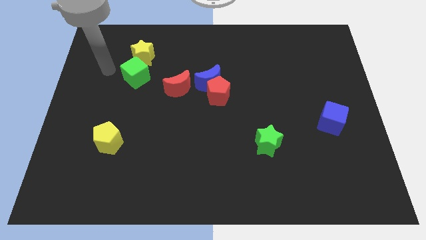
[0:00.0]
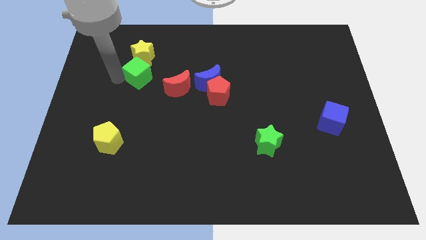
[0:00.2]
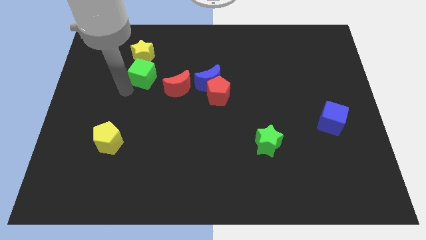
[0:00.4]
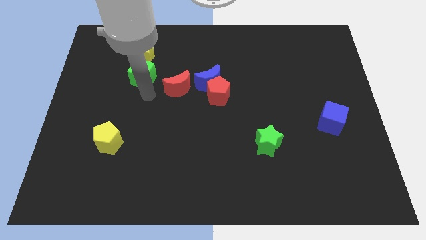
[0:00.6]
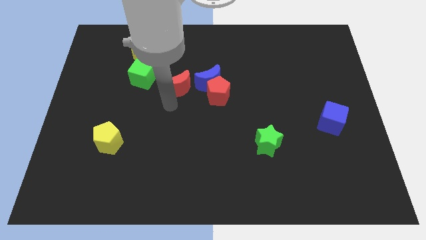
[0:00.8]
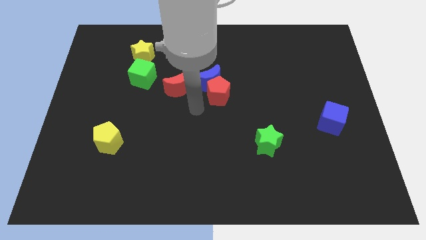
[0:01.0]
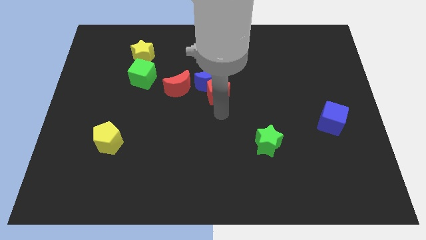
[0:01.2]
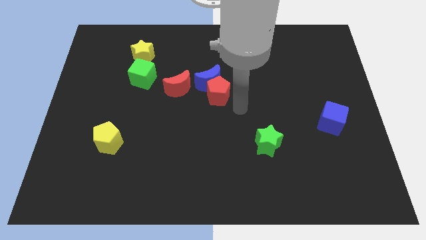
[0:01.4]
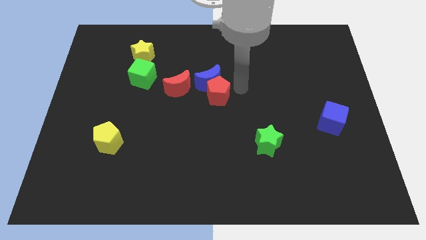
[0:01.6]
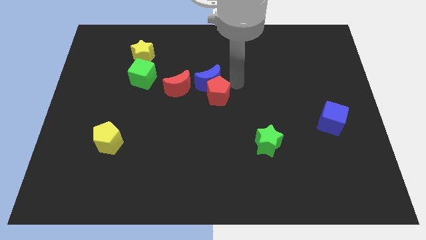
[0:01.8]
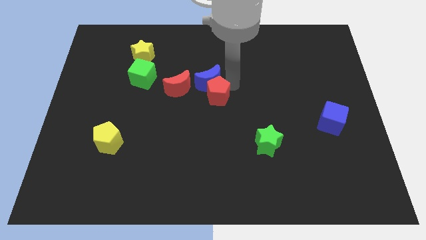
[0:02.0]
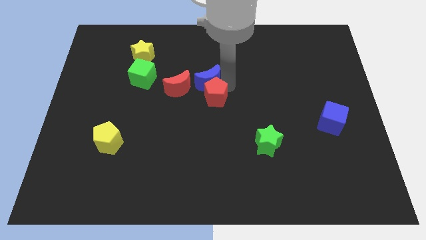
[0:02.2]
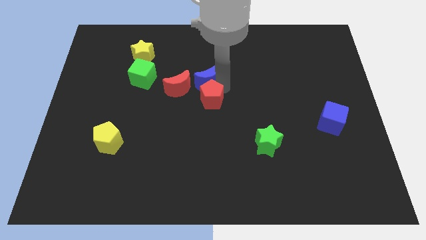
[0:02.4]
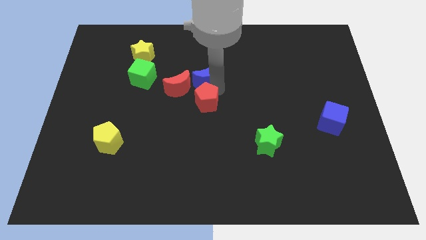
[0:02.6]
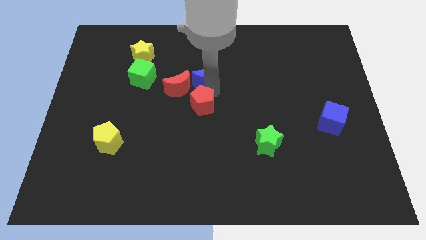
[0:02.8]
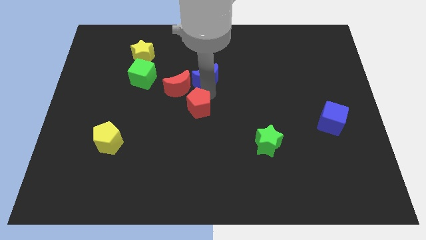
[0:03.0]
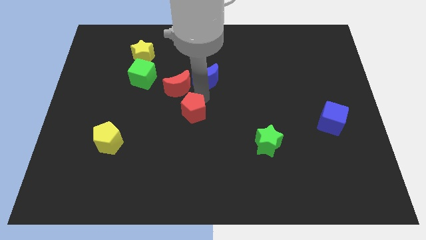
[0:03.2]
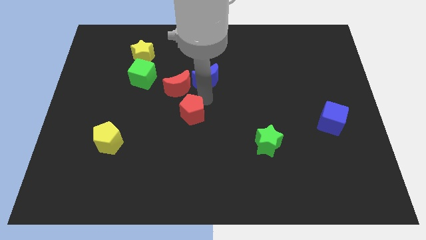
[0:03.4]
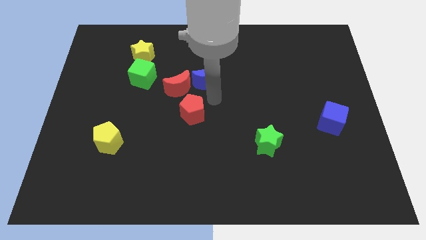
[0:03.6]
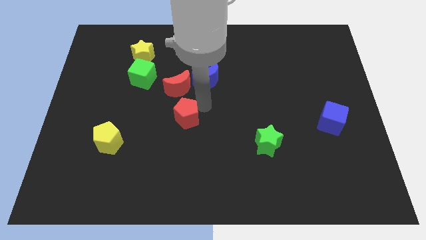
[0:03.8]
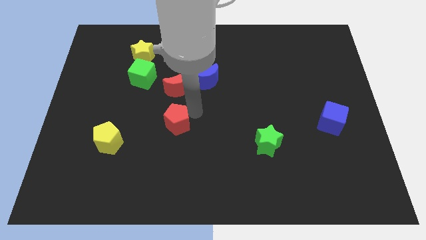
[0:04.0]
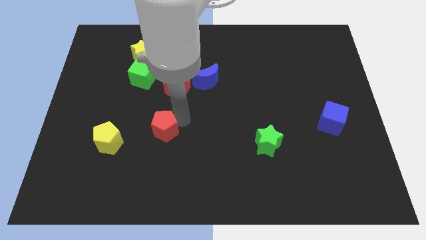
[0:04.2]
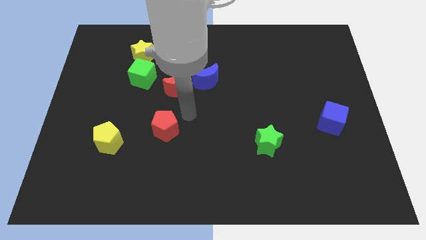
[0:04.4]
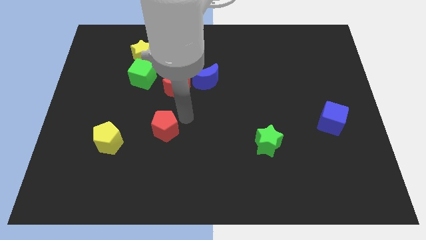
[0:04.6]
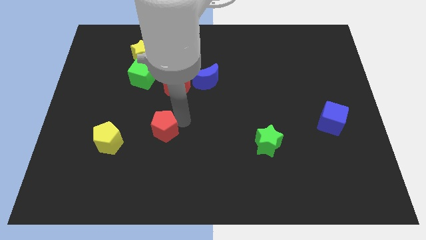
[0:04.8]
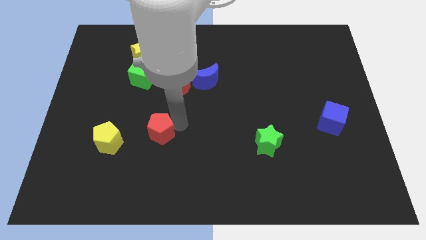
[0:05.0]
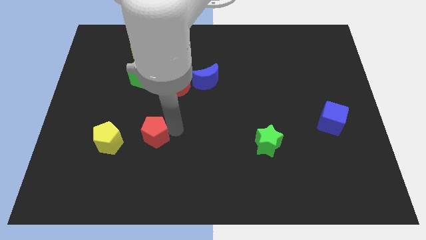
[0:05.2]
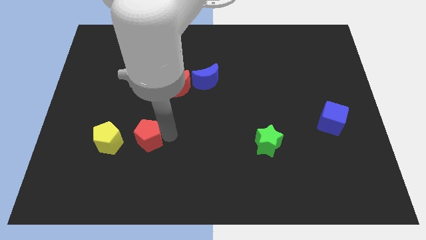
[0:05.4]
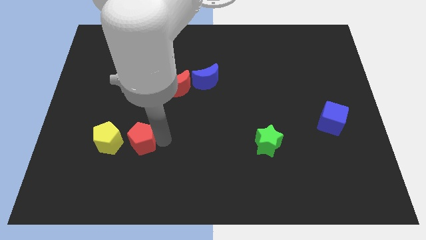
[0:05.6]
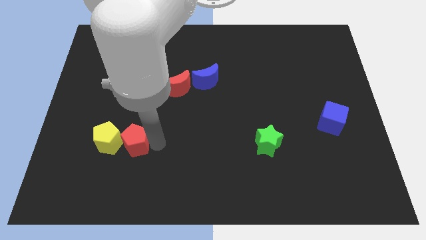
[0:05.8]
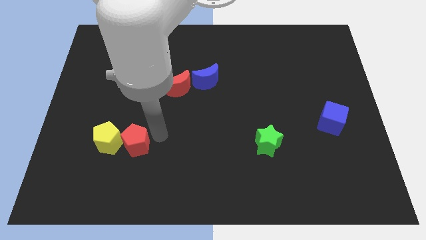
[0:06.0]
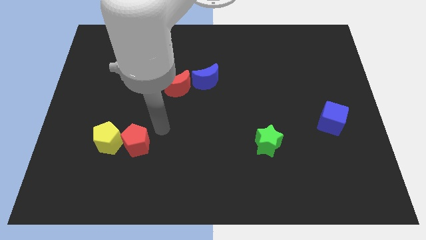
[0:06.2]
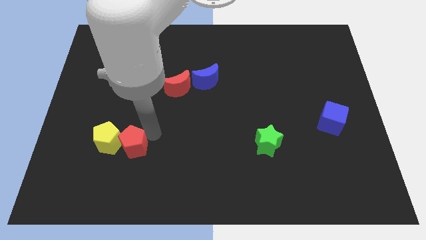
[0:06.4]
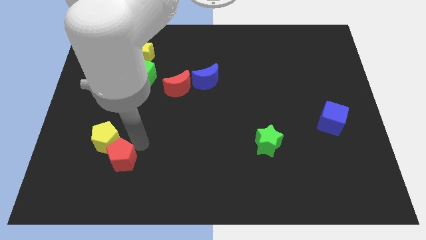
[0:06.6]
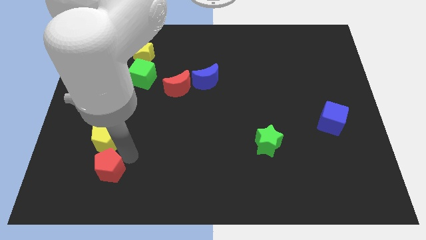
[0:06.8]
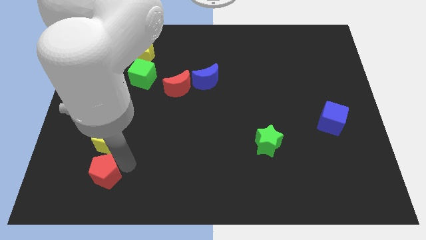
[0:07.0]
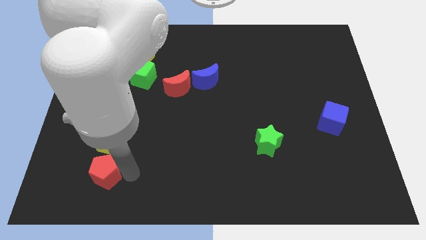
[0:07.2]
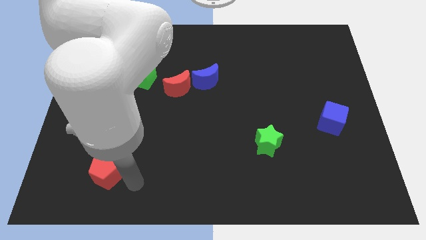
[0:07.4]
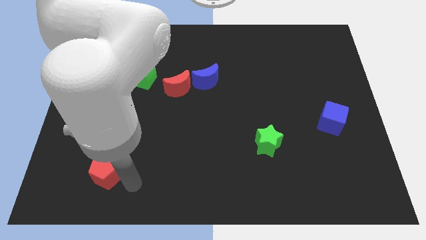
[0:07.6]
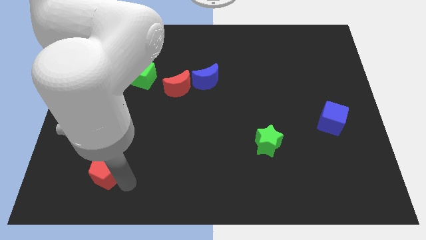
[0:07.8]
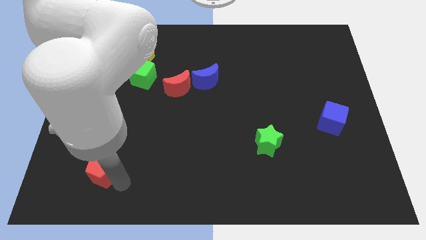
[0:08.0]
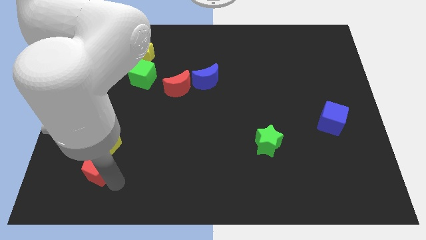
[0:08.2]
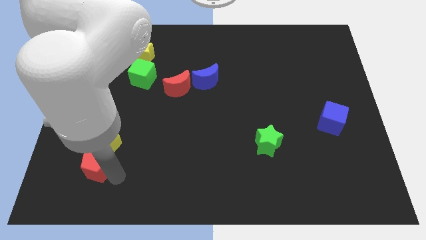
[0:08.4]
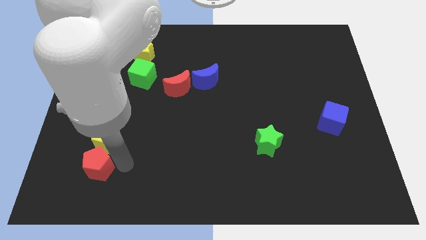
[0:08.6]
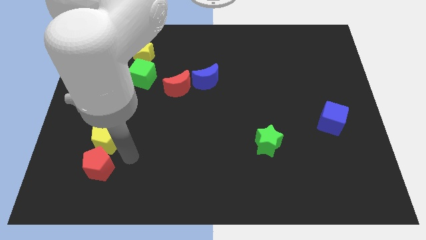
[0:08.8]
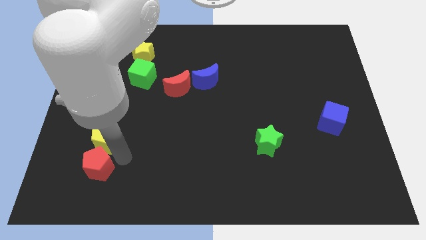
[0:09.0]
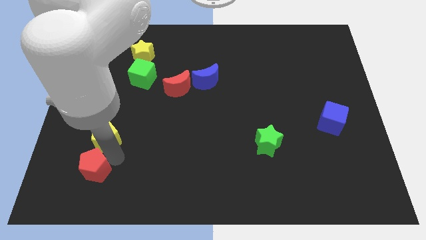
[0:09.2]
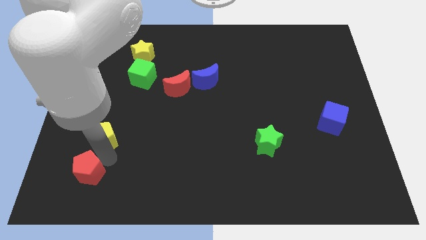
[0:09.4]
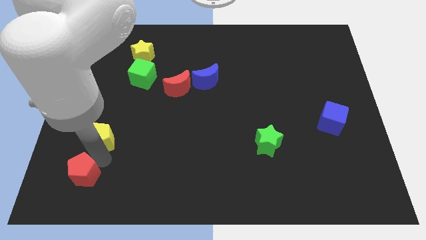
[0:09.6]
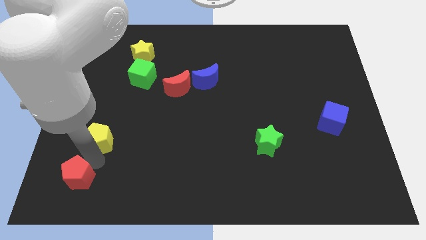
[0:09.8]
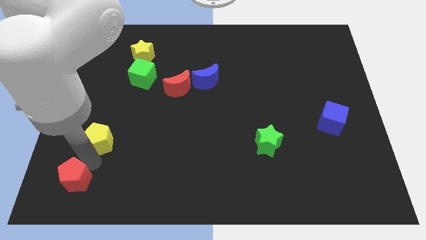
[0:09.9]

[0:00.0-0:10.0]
slide the red pentagon to the bottom left

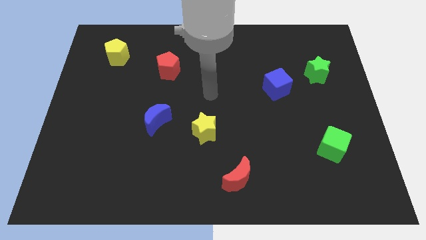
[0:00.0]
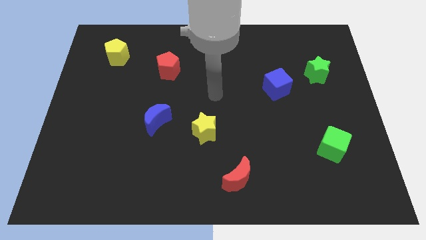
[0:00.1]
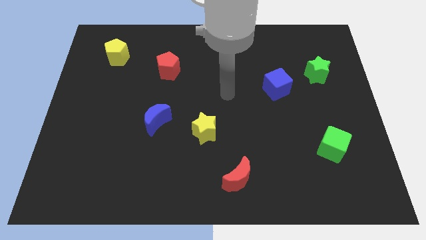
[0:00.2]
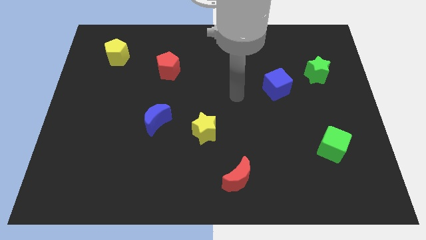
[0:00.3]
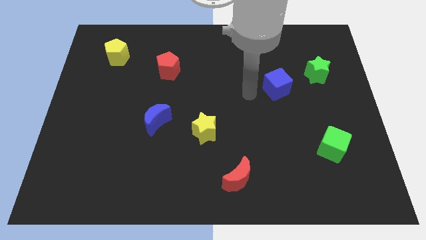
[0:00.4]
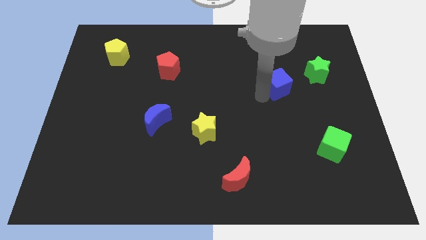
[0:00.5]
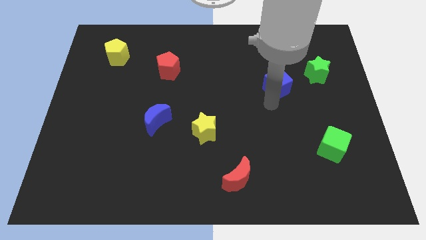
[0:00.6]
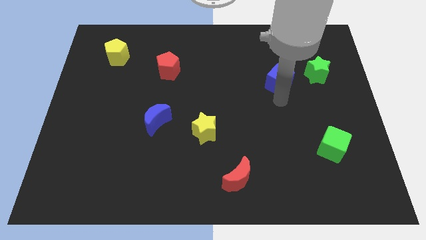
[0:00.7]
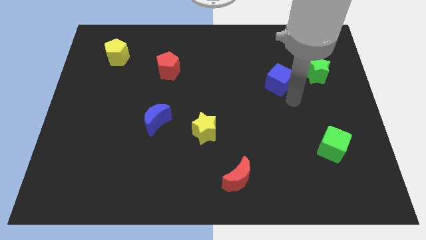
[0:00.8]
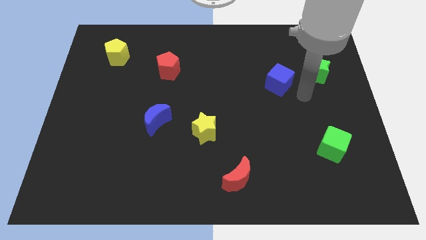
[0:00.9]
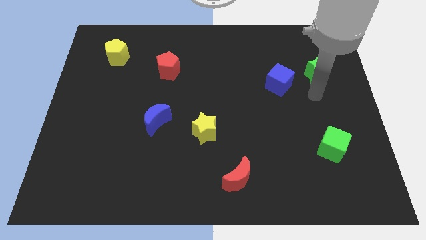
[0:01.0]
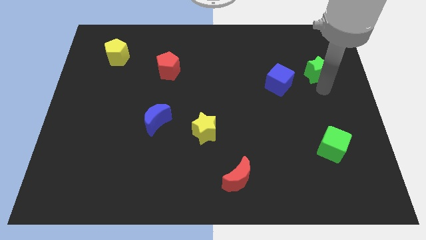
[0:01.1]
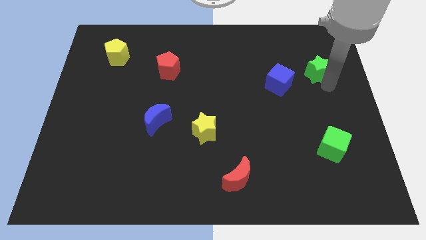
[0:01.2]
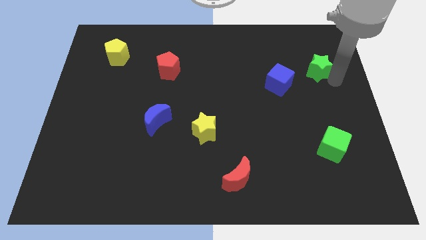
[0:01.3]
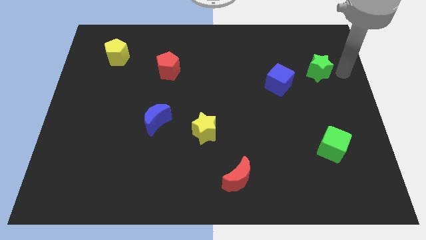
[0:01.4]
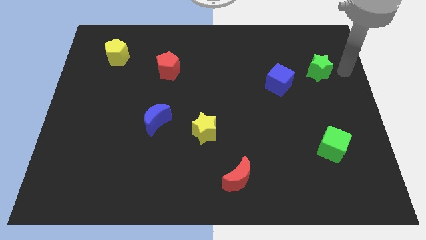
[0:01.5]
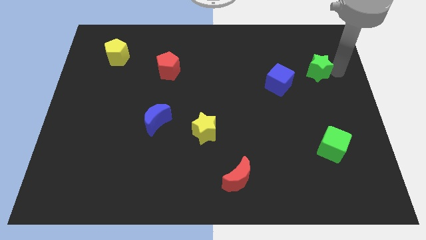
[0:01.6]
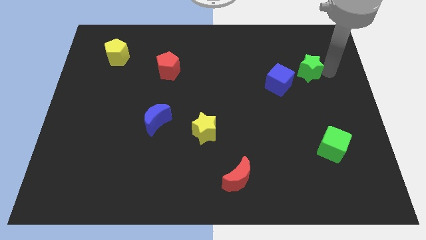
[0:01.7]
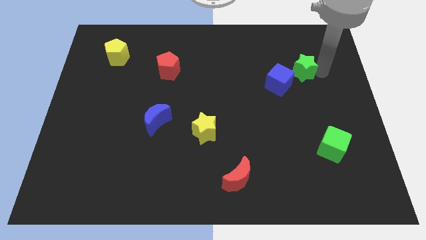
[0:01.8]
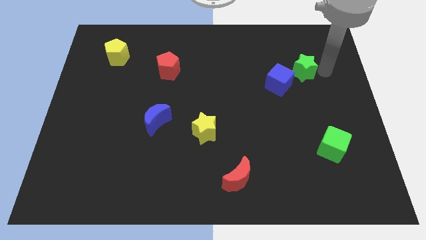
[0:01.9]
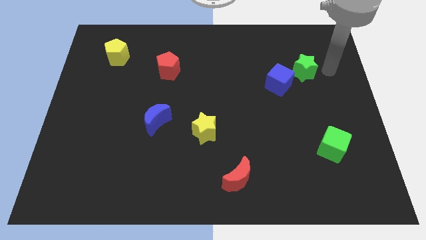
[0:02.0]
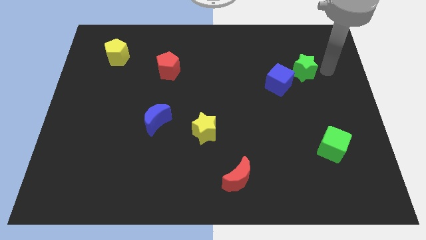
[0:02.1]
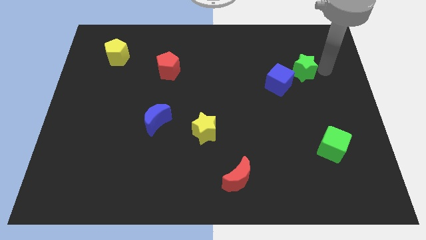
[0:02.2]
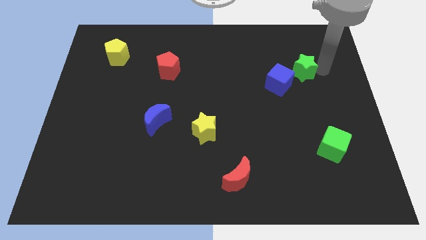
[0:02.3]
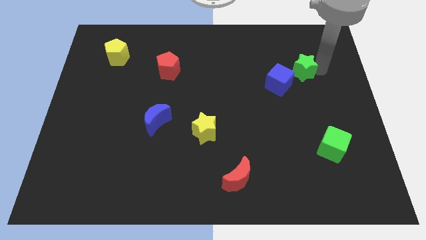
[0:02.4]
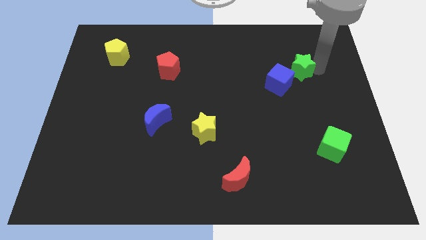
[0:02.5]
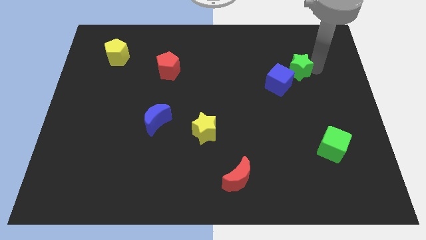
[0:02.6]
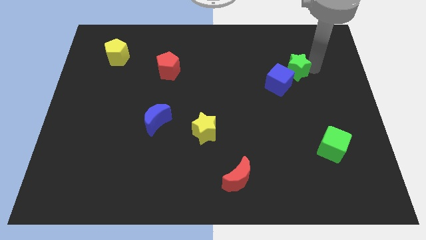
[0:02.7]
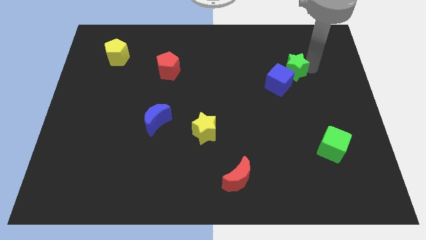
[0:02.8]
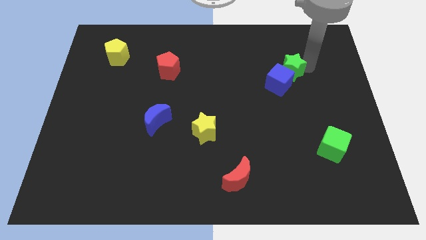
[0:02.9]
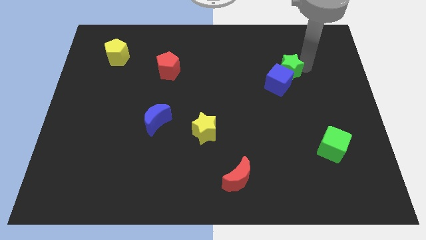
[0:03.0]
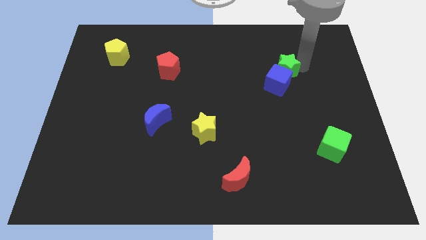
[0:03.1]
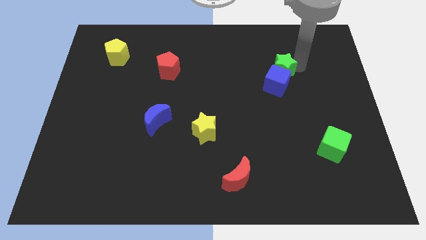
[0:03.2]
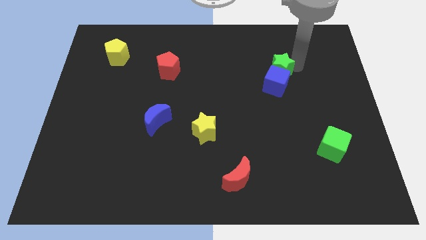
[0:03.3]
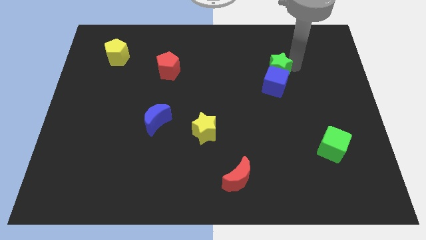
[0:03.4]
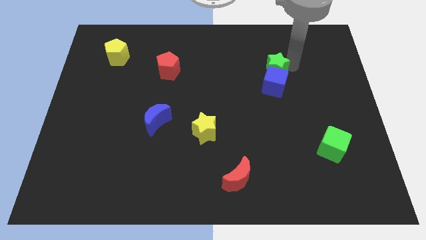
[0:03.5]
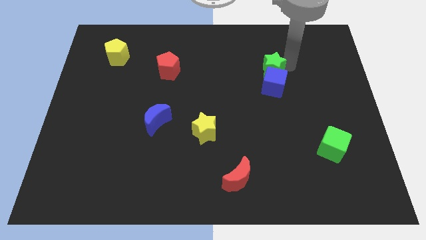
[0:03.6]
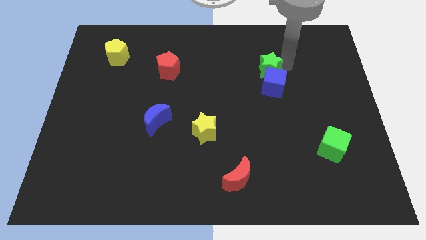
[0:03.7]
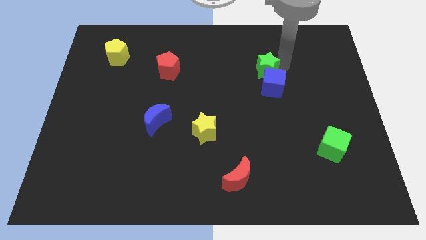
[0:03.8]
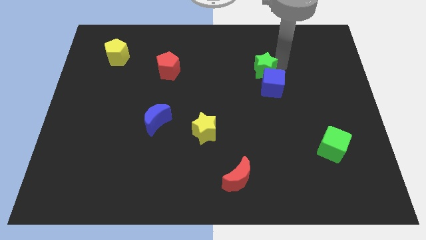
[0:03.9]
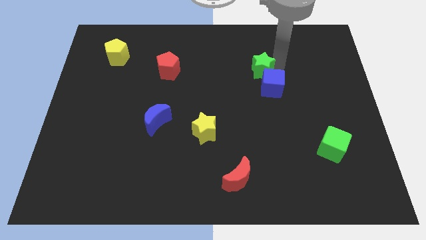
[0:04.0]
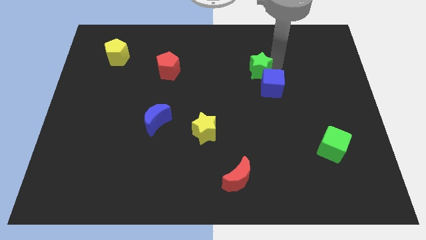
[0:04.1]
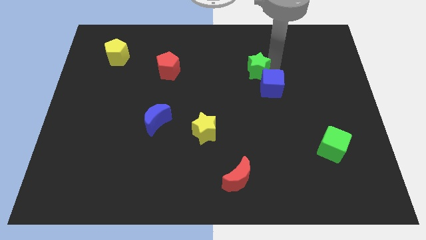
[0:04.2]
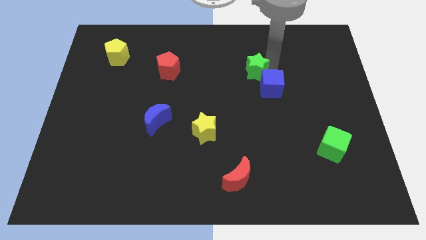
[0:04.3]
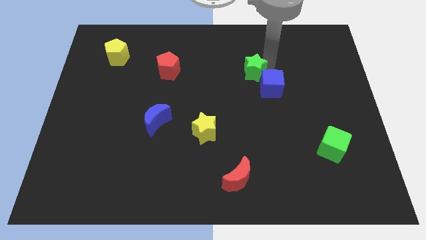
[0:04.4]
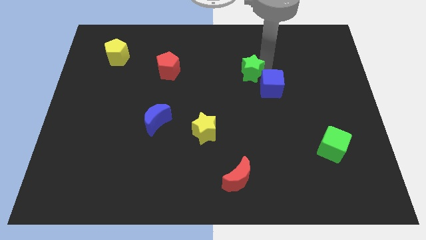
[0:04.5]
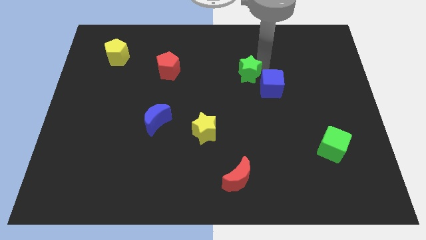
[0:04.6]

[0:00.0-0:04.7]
slide the green star to the center of the board
